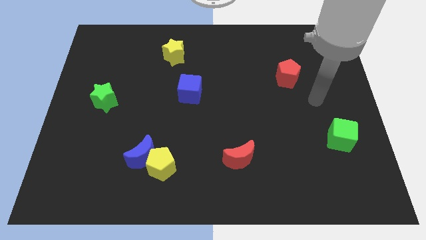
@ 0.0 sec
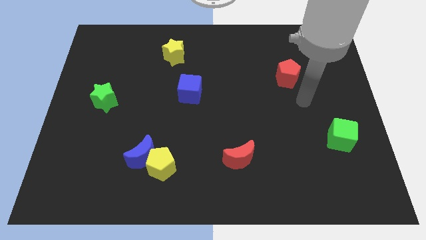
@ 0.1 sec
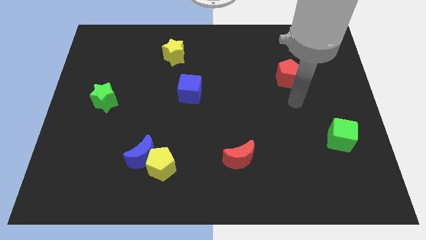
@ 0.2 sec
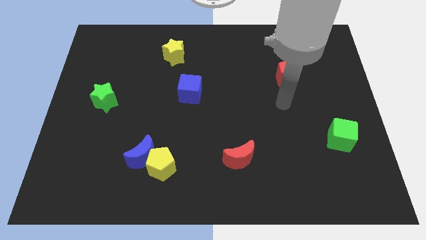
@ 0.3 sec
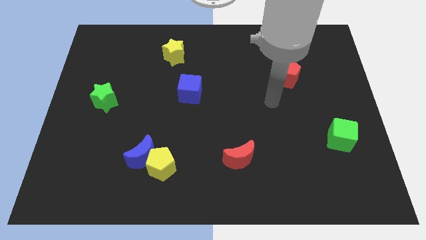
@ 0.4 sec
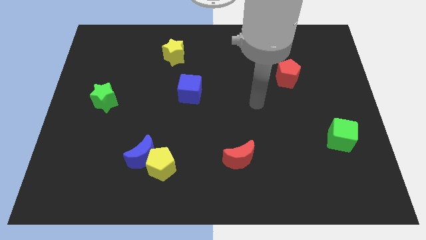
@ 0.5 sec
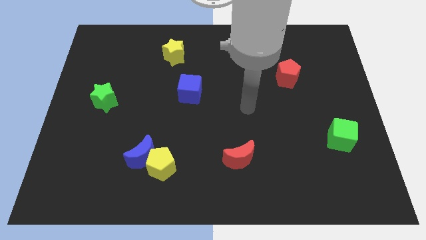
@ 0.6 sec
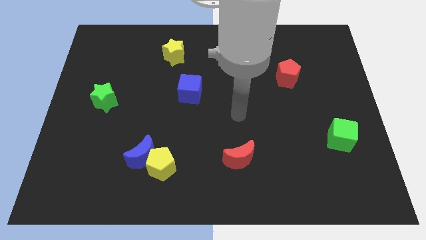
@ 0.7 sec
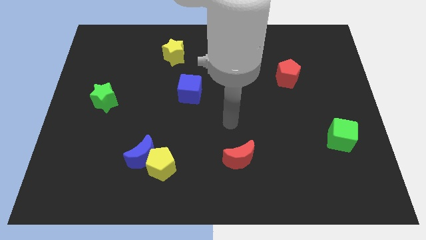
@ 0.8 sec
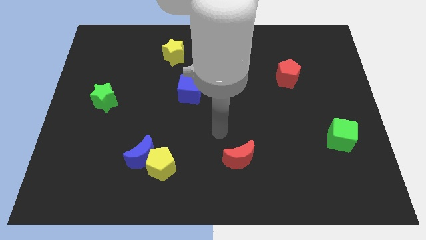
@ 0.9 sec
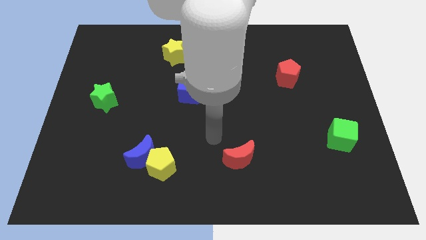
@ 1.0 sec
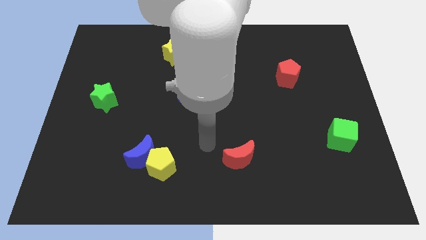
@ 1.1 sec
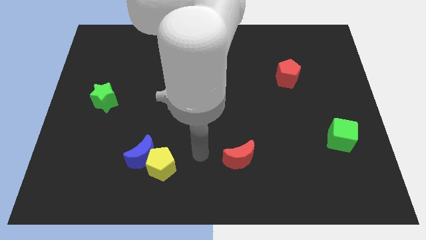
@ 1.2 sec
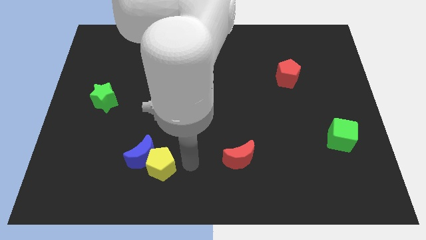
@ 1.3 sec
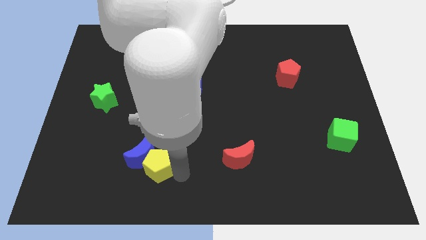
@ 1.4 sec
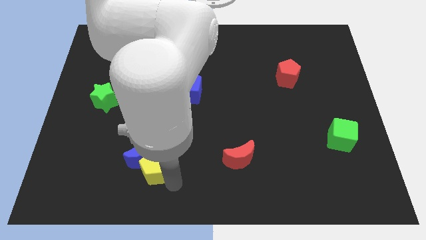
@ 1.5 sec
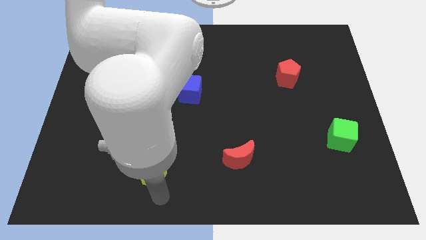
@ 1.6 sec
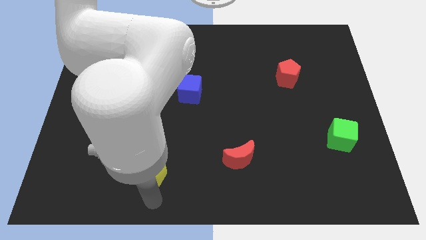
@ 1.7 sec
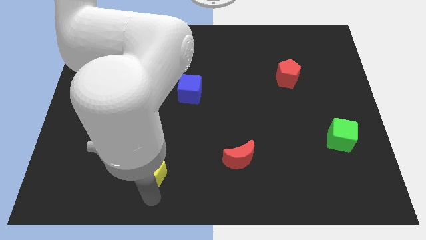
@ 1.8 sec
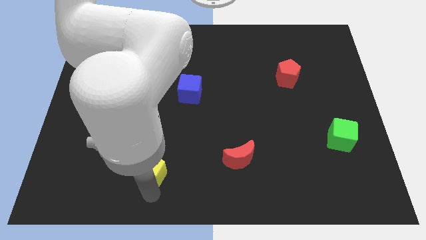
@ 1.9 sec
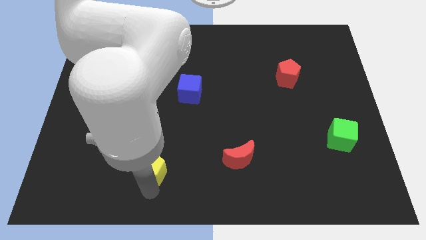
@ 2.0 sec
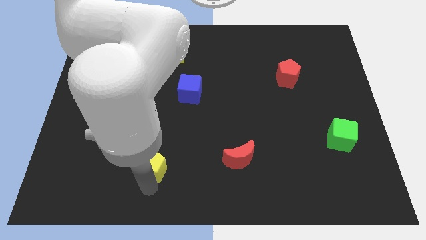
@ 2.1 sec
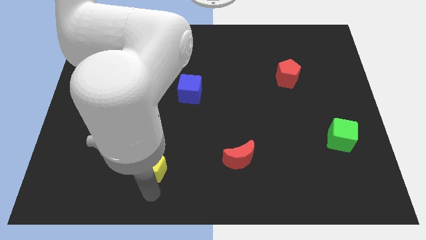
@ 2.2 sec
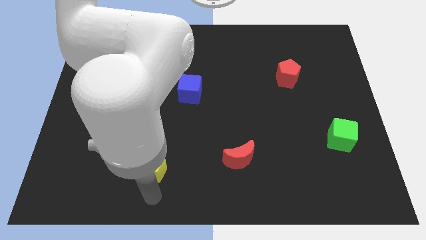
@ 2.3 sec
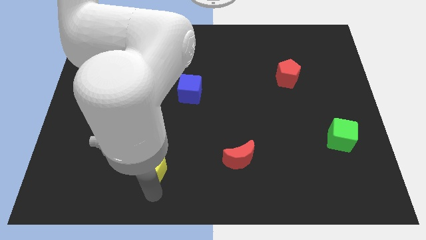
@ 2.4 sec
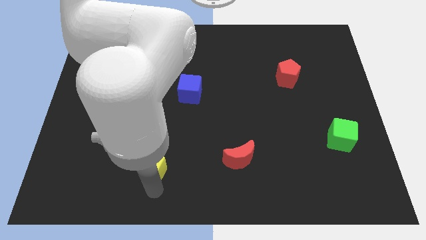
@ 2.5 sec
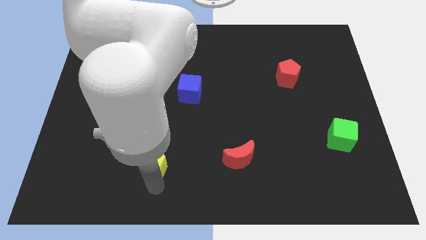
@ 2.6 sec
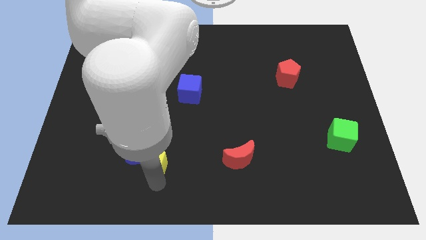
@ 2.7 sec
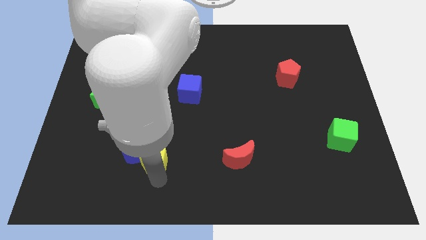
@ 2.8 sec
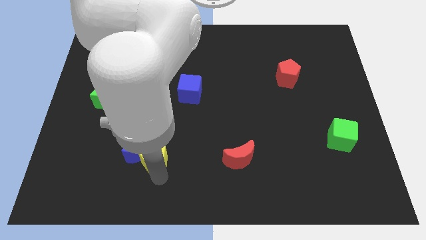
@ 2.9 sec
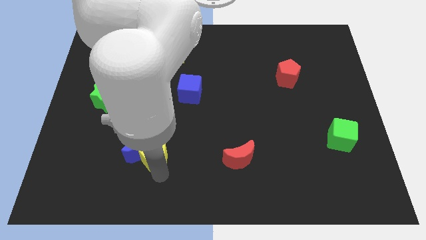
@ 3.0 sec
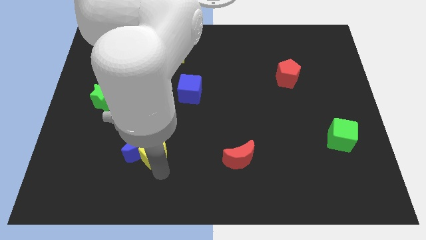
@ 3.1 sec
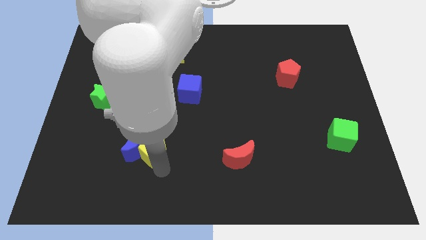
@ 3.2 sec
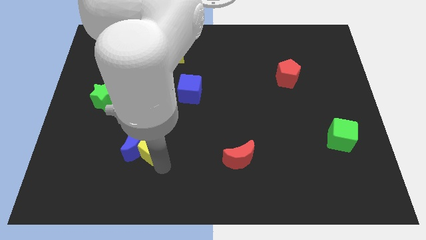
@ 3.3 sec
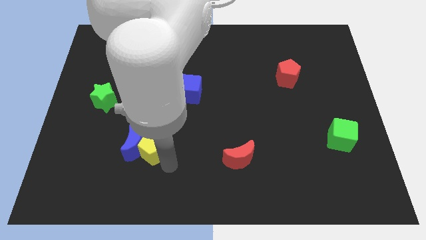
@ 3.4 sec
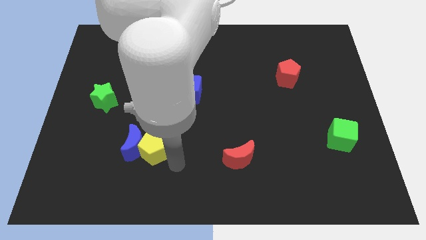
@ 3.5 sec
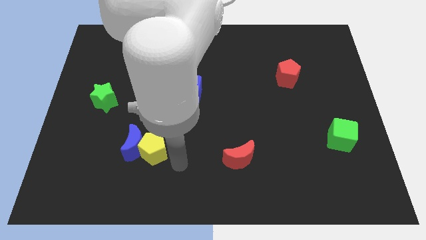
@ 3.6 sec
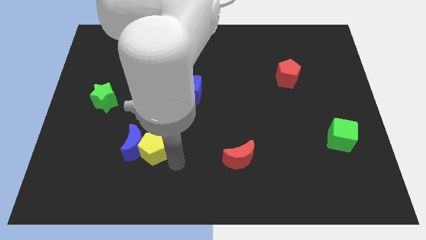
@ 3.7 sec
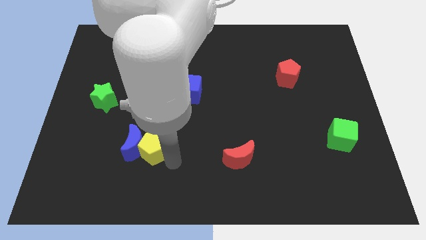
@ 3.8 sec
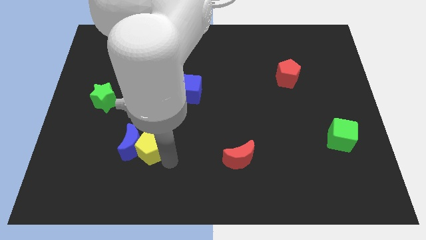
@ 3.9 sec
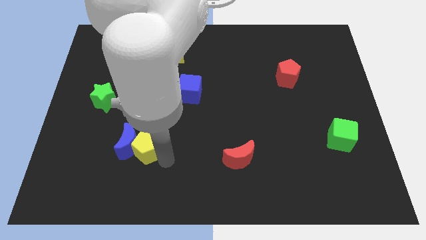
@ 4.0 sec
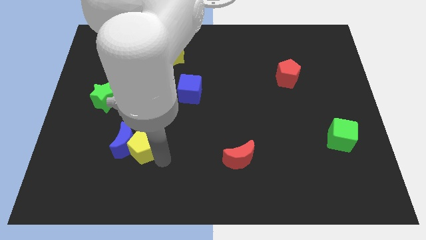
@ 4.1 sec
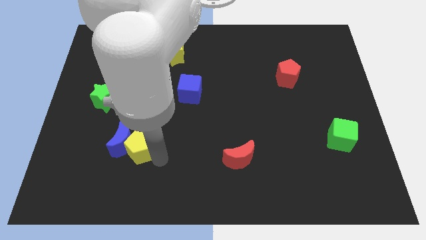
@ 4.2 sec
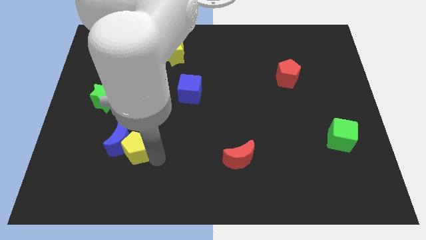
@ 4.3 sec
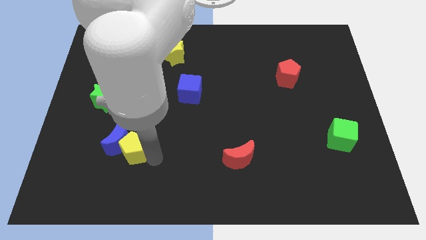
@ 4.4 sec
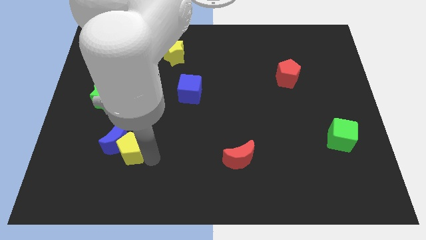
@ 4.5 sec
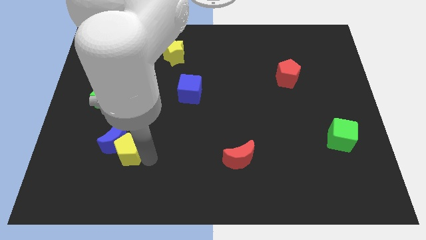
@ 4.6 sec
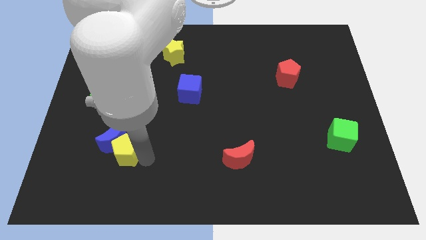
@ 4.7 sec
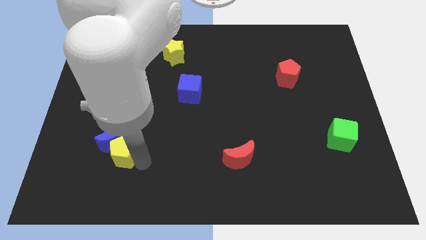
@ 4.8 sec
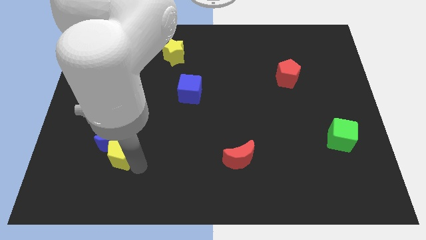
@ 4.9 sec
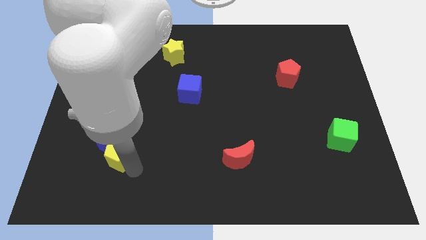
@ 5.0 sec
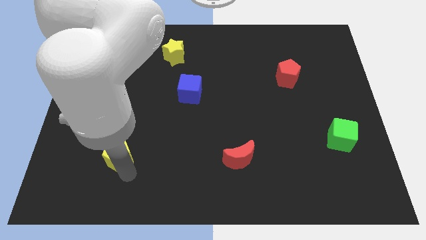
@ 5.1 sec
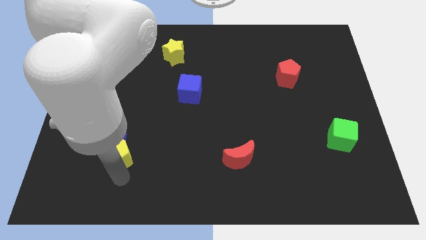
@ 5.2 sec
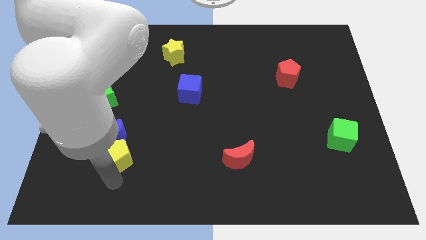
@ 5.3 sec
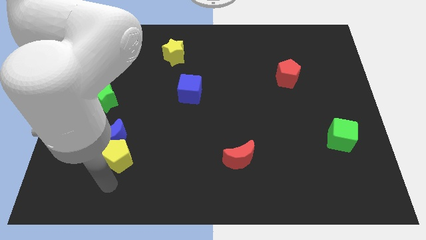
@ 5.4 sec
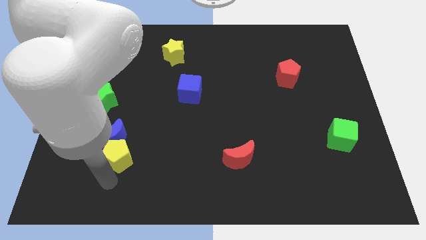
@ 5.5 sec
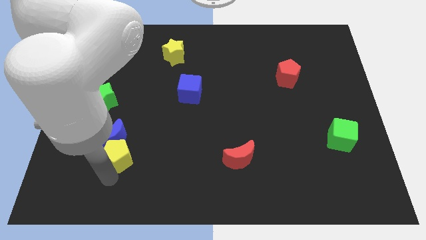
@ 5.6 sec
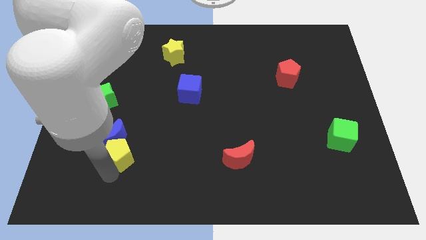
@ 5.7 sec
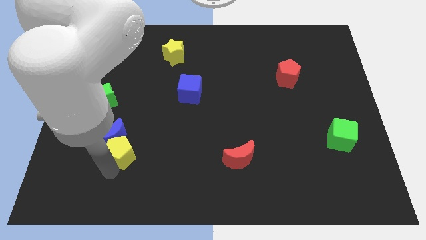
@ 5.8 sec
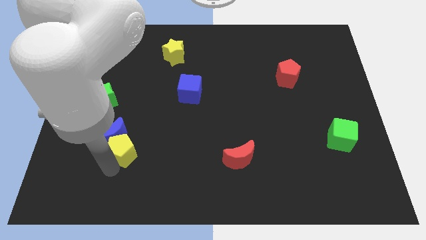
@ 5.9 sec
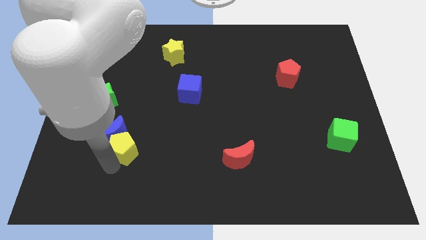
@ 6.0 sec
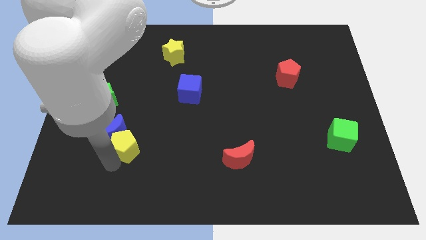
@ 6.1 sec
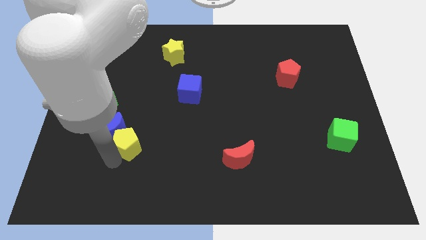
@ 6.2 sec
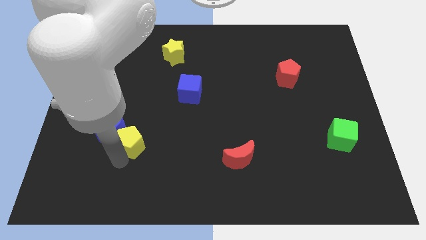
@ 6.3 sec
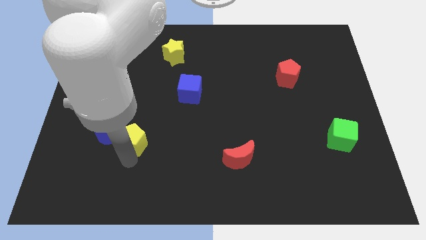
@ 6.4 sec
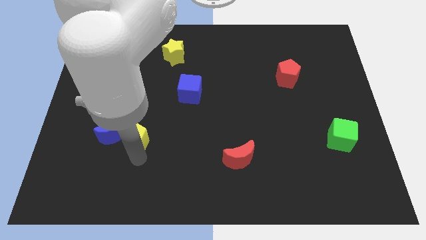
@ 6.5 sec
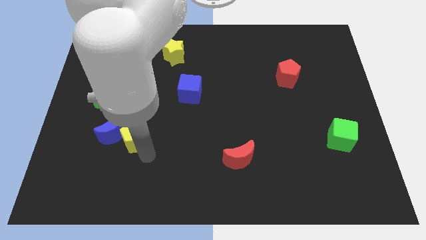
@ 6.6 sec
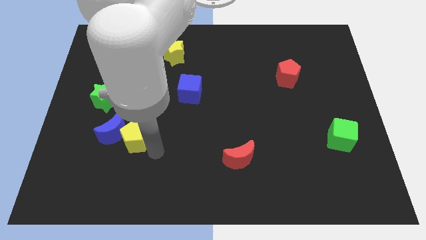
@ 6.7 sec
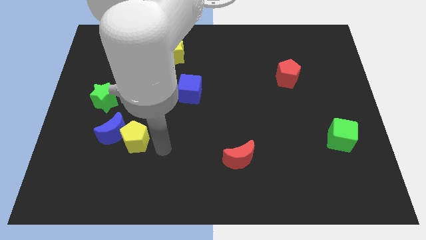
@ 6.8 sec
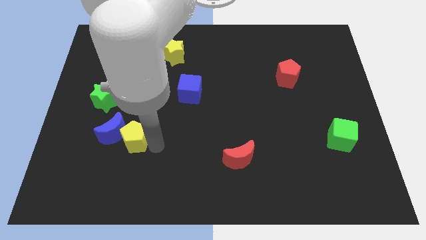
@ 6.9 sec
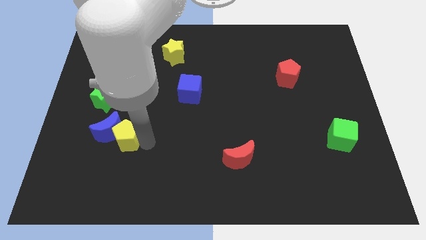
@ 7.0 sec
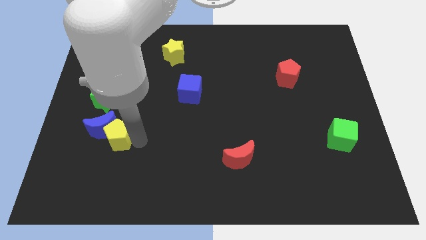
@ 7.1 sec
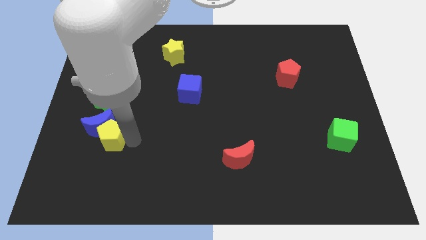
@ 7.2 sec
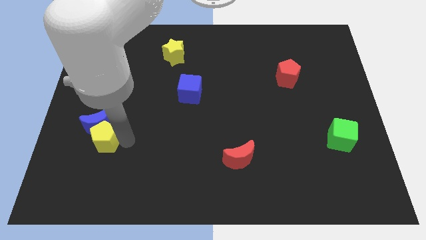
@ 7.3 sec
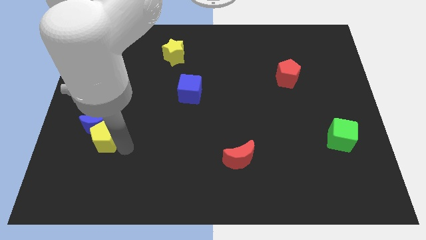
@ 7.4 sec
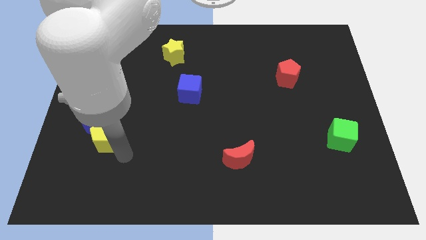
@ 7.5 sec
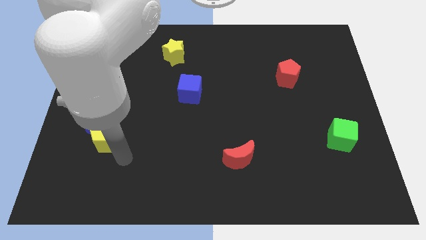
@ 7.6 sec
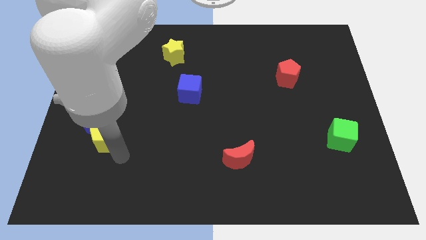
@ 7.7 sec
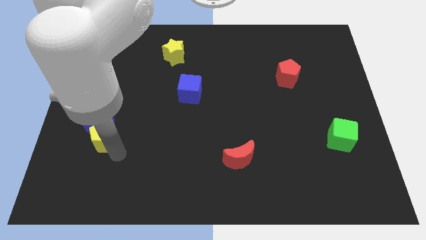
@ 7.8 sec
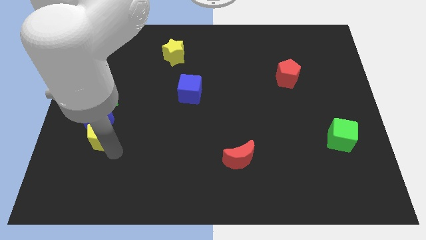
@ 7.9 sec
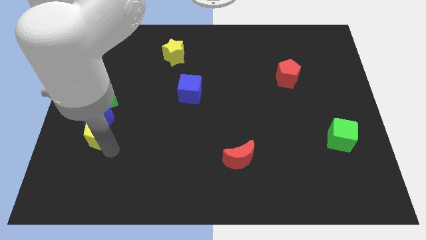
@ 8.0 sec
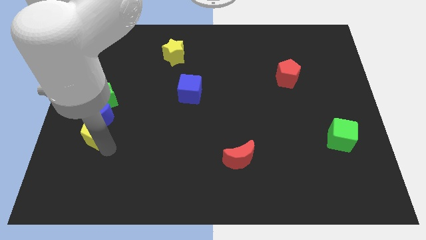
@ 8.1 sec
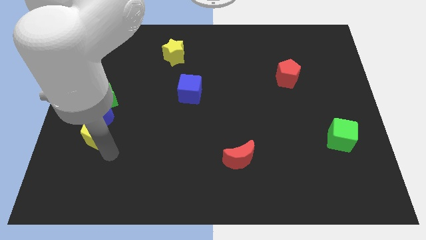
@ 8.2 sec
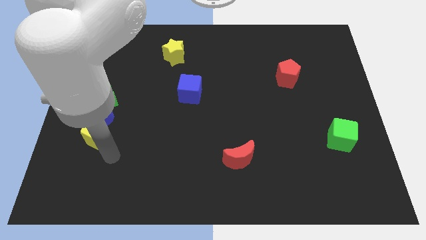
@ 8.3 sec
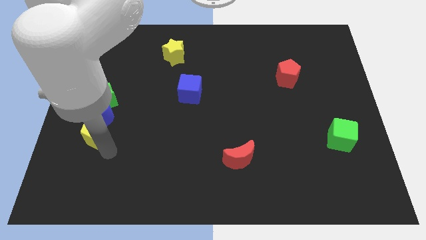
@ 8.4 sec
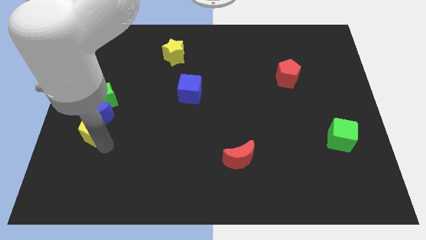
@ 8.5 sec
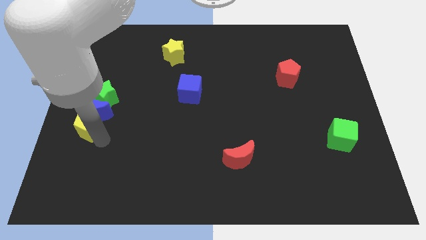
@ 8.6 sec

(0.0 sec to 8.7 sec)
push the yellow pentagon to the center left
